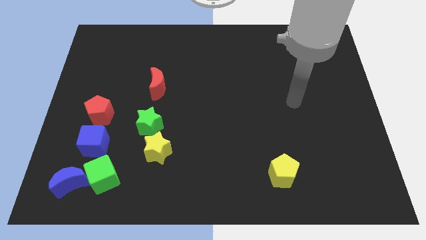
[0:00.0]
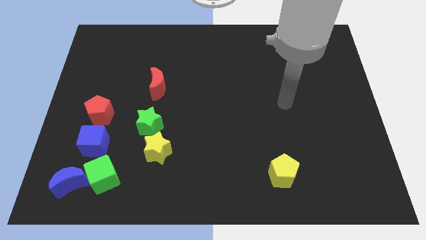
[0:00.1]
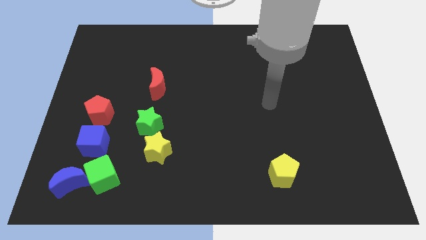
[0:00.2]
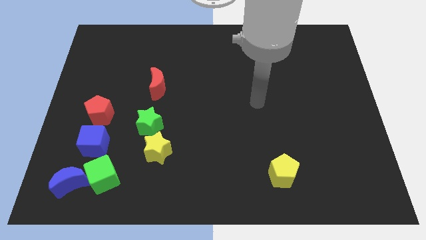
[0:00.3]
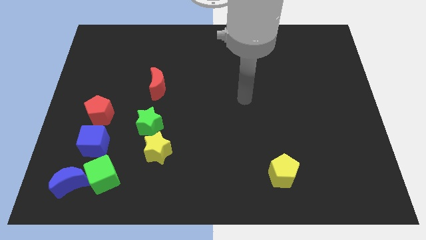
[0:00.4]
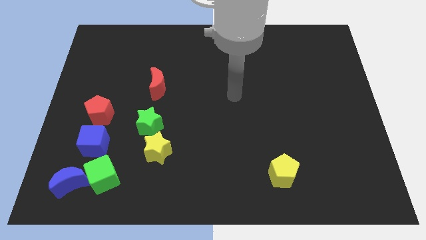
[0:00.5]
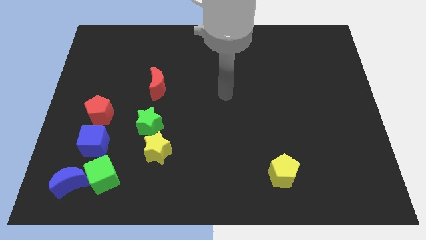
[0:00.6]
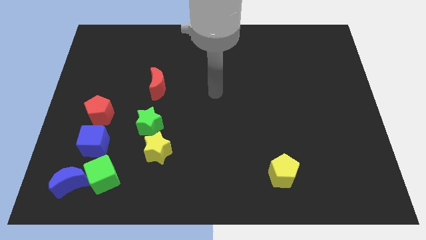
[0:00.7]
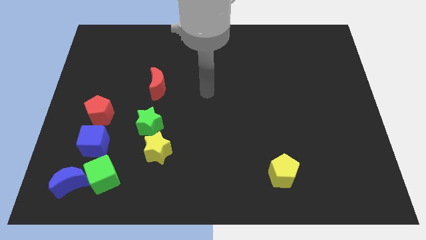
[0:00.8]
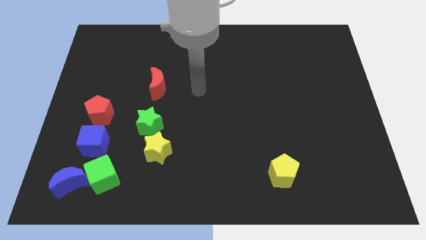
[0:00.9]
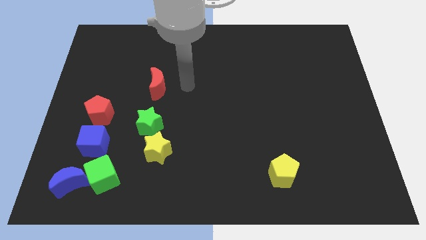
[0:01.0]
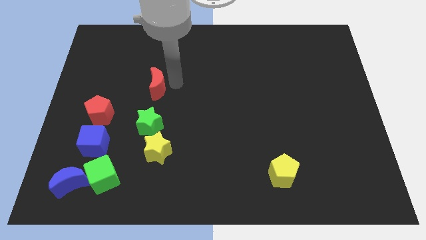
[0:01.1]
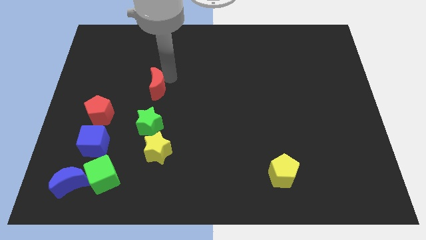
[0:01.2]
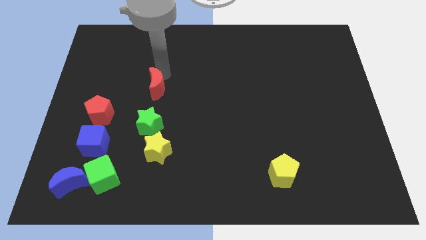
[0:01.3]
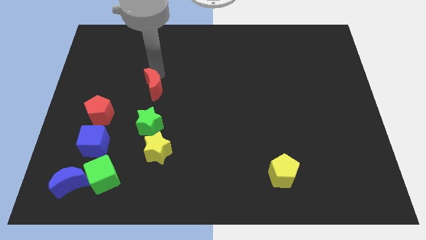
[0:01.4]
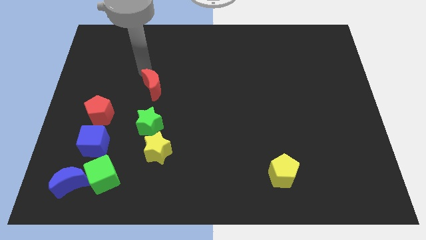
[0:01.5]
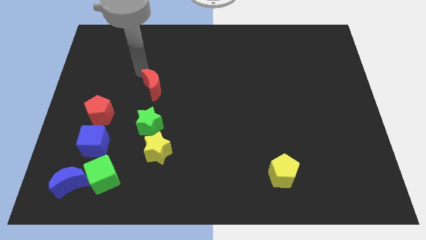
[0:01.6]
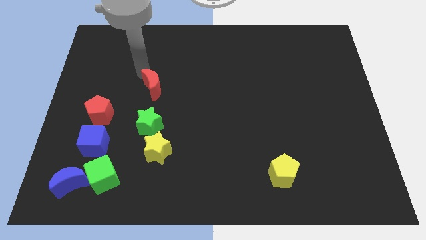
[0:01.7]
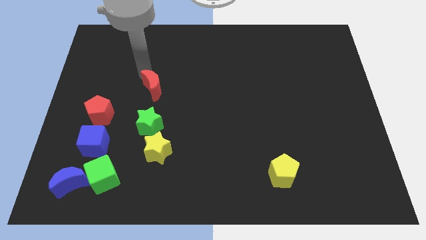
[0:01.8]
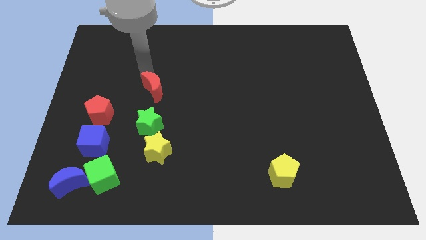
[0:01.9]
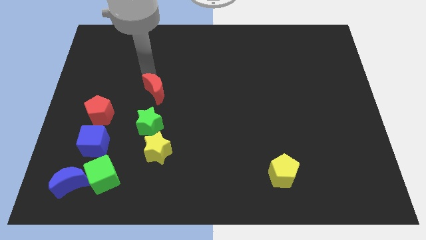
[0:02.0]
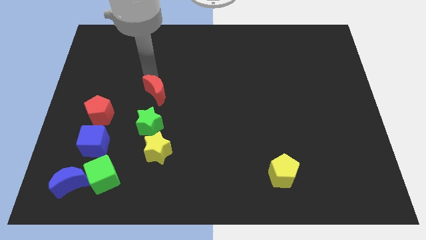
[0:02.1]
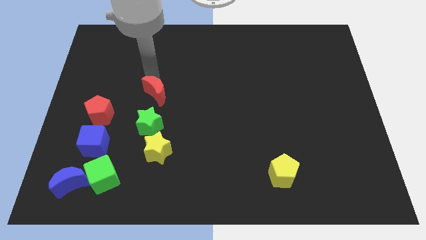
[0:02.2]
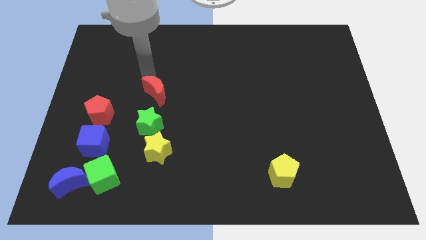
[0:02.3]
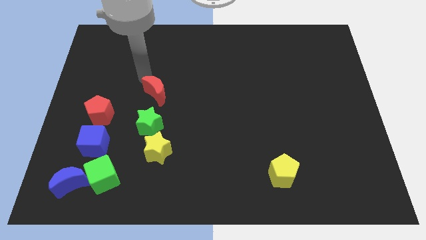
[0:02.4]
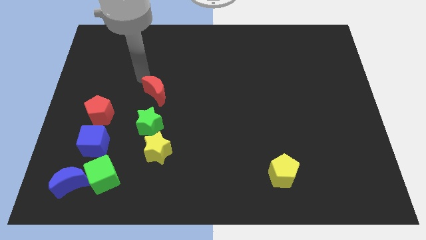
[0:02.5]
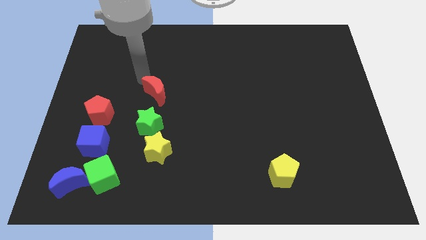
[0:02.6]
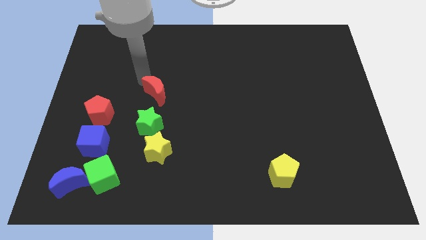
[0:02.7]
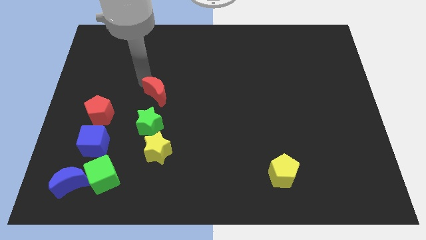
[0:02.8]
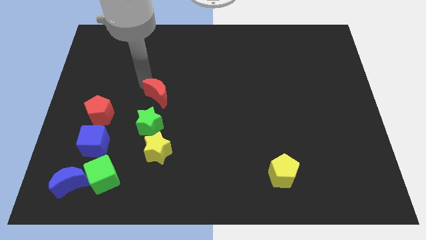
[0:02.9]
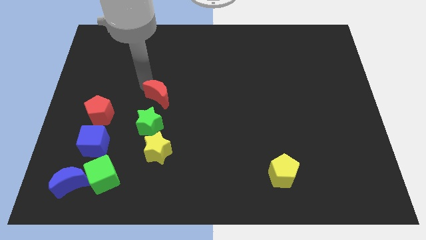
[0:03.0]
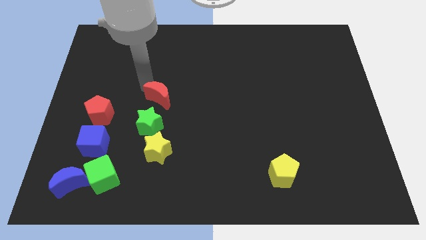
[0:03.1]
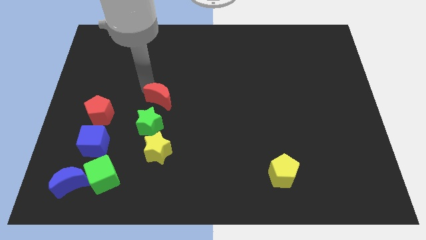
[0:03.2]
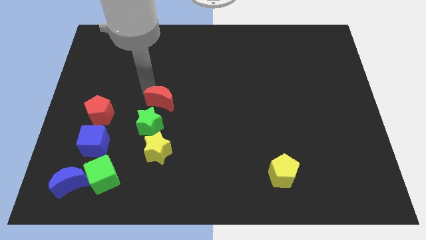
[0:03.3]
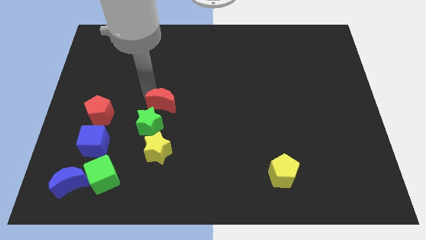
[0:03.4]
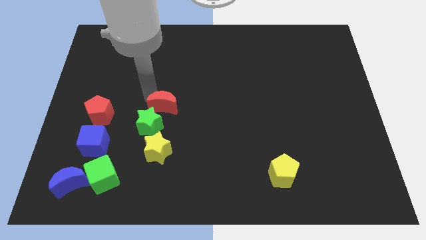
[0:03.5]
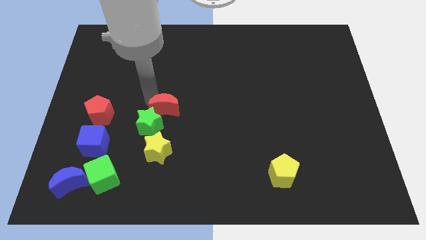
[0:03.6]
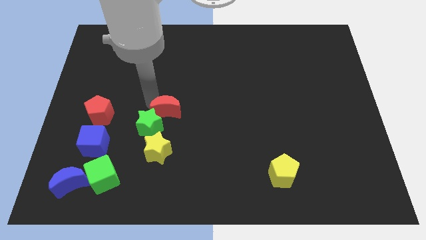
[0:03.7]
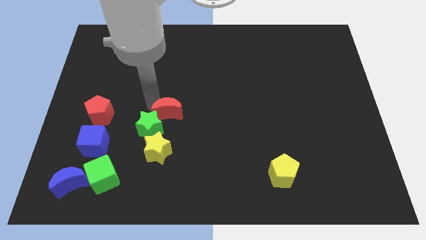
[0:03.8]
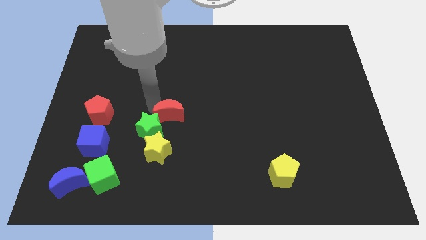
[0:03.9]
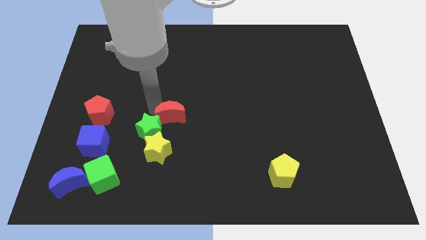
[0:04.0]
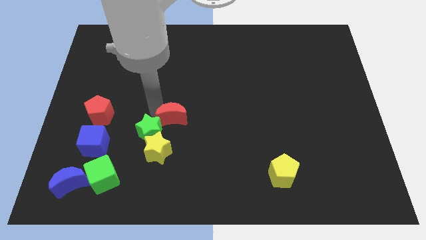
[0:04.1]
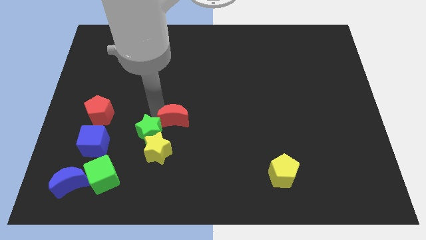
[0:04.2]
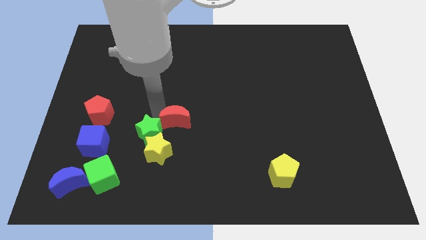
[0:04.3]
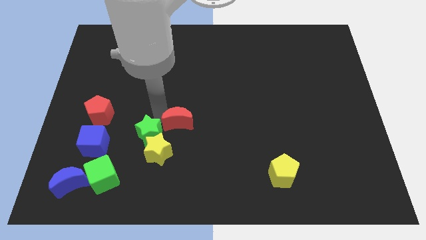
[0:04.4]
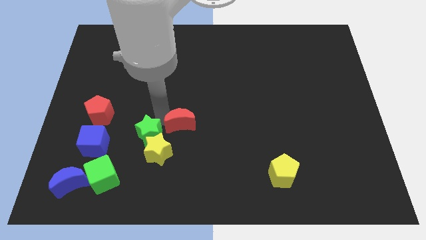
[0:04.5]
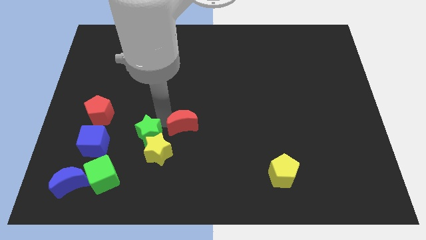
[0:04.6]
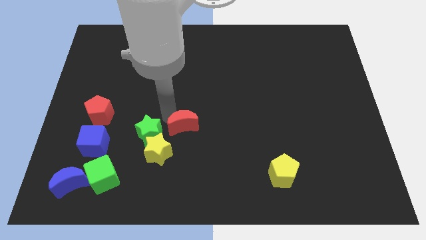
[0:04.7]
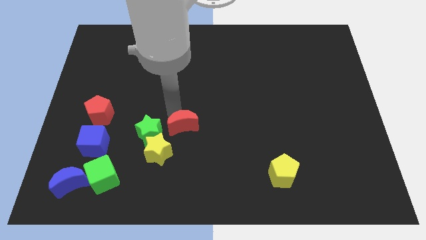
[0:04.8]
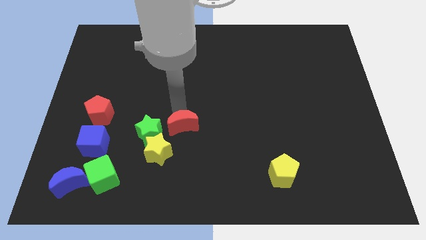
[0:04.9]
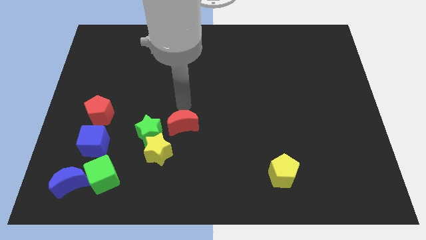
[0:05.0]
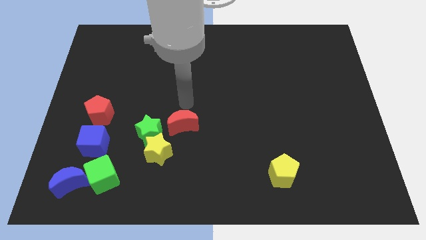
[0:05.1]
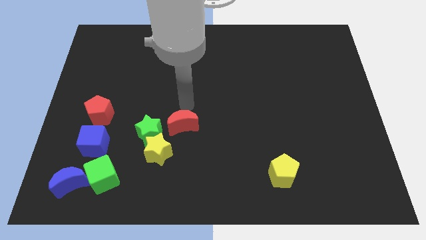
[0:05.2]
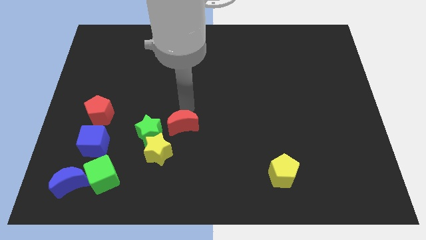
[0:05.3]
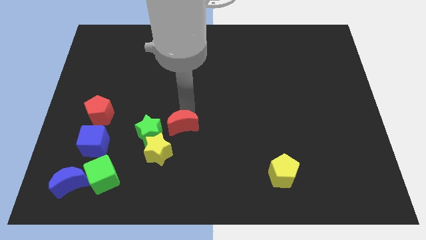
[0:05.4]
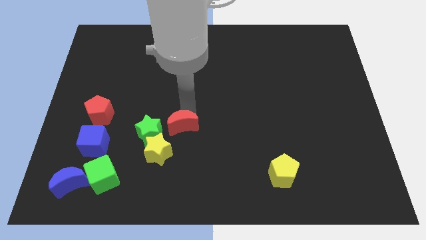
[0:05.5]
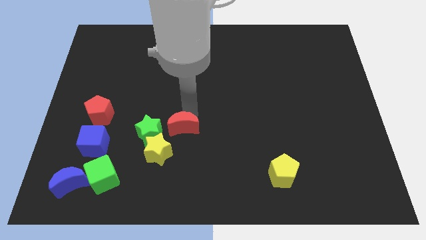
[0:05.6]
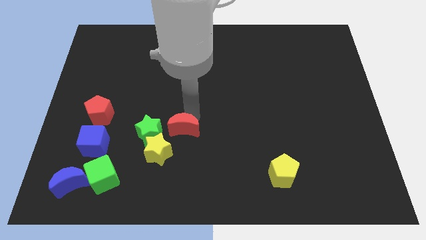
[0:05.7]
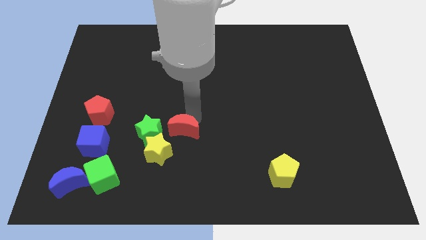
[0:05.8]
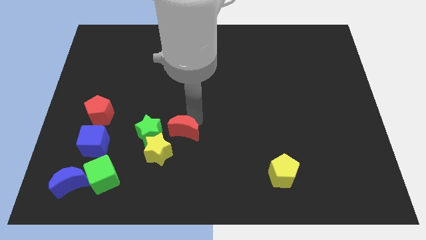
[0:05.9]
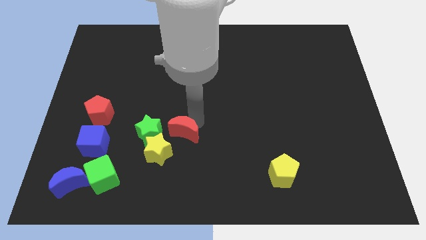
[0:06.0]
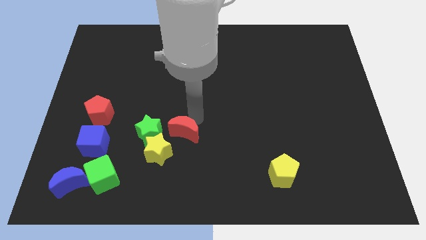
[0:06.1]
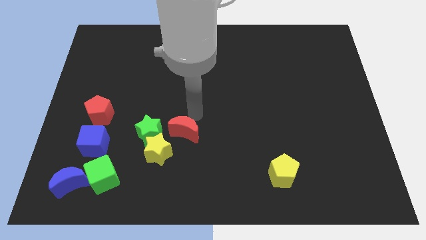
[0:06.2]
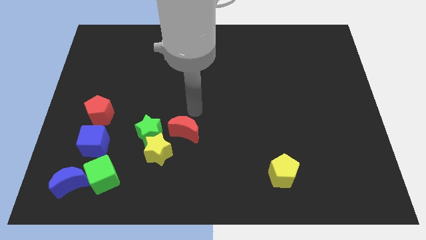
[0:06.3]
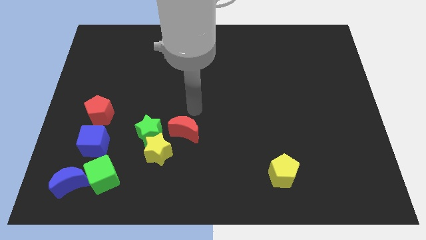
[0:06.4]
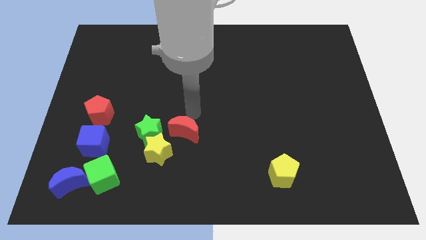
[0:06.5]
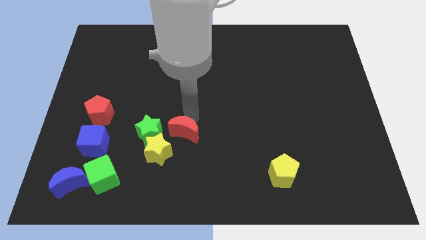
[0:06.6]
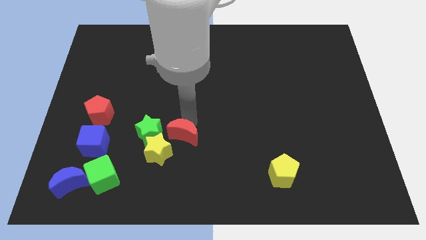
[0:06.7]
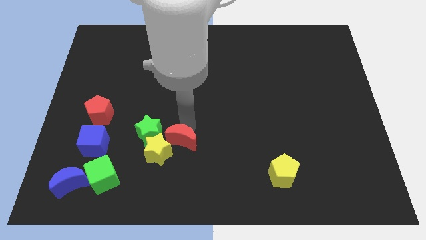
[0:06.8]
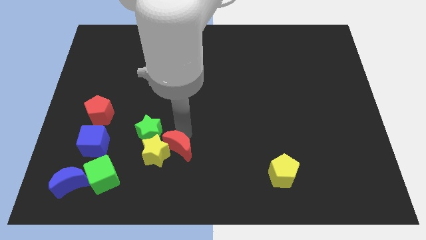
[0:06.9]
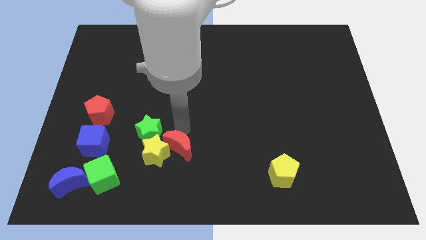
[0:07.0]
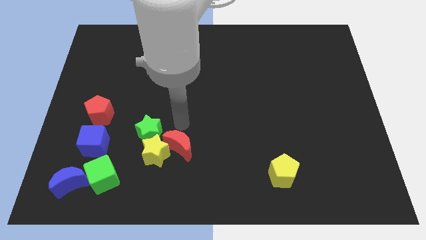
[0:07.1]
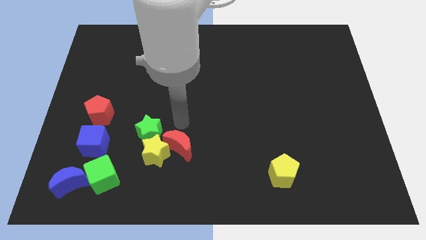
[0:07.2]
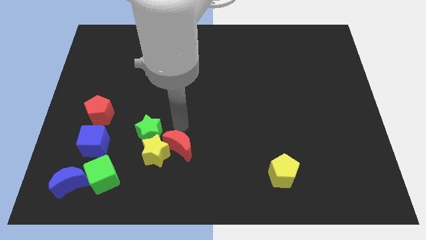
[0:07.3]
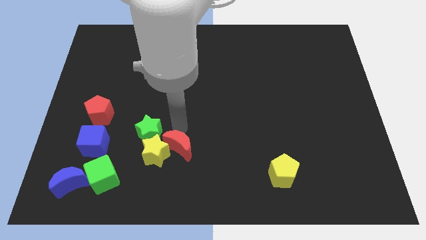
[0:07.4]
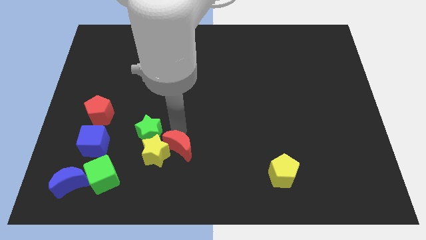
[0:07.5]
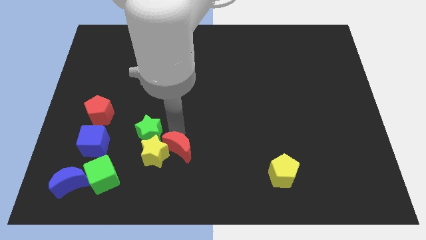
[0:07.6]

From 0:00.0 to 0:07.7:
slide the red moon to the bottom right of the yellow star
